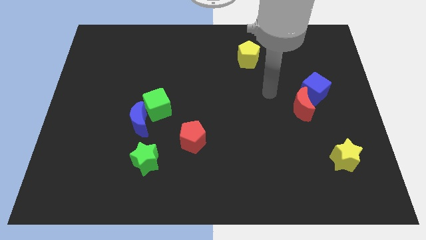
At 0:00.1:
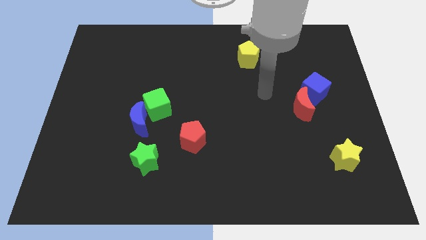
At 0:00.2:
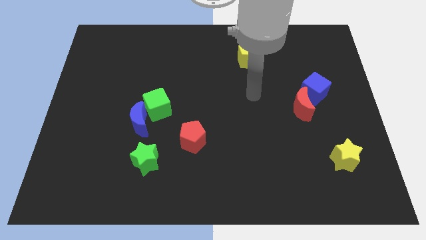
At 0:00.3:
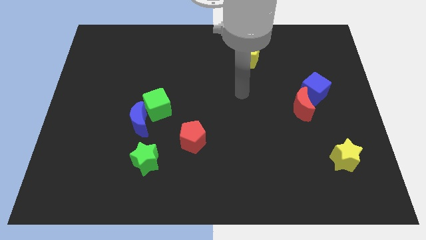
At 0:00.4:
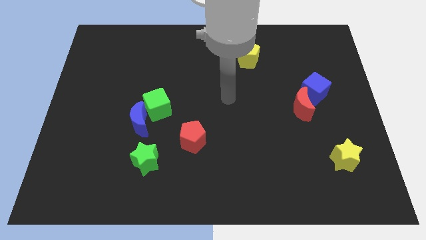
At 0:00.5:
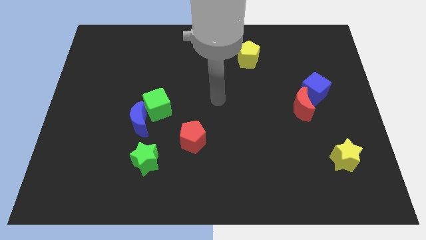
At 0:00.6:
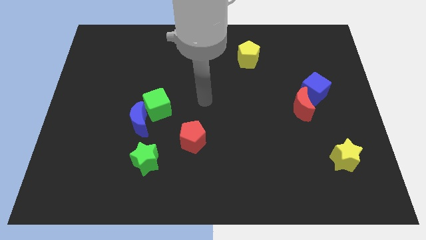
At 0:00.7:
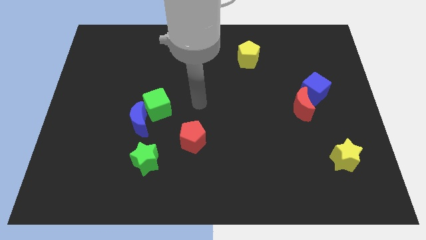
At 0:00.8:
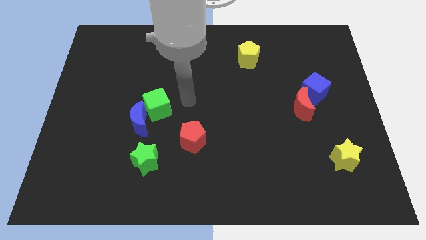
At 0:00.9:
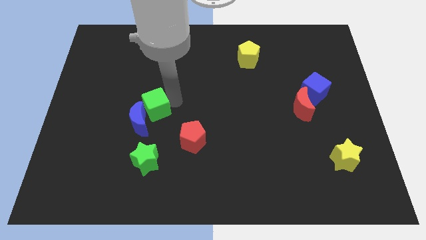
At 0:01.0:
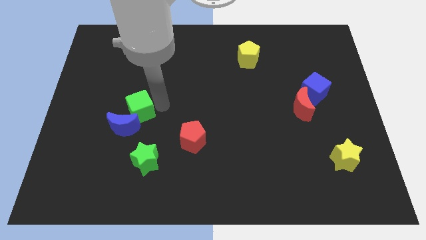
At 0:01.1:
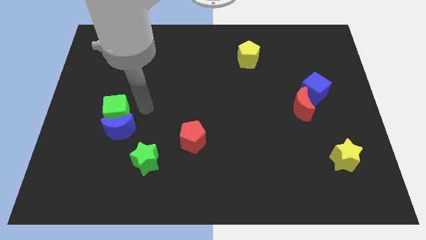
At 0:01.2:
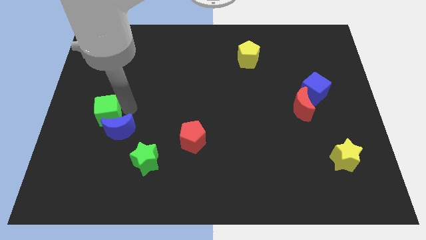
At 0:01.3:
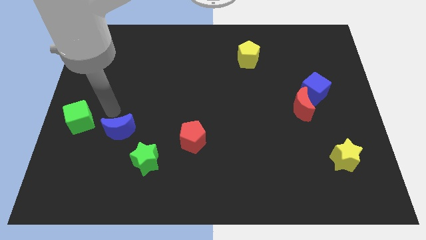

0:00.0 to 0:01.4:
pull the blue moon apart from the green cube

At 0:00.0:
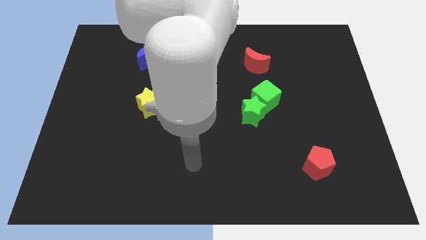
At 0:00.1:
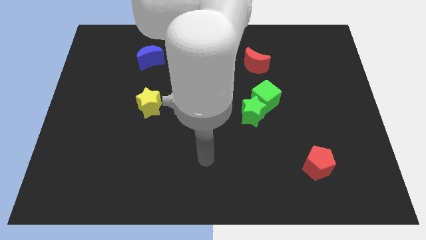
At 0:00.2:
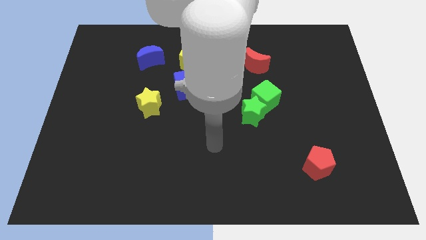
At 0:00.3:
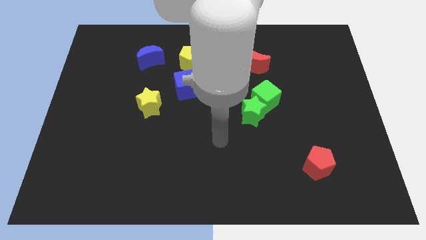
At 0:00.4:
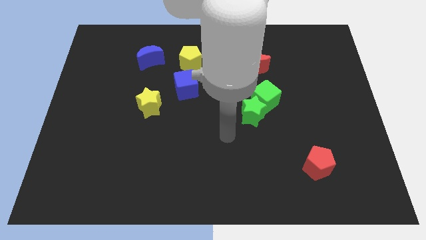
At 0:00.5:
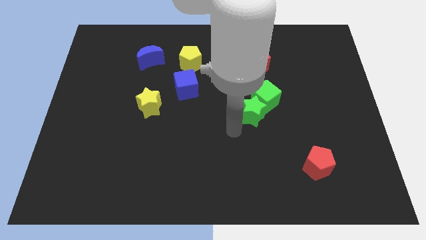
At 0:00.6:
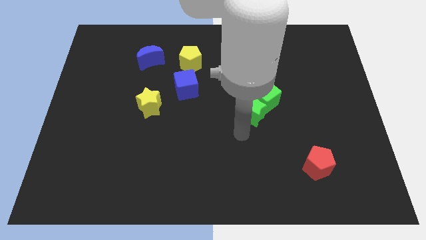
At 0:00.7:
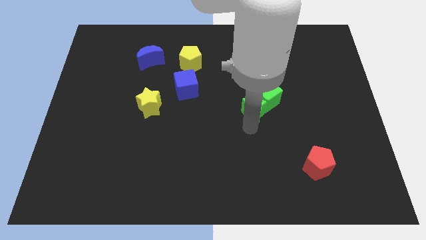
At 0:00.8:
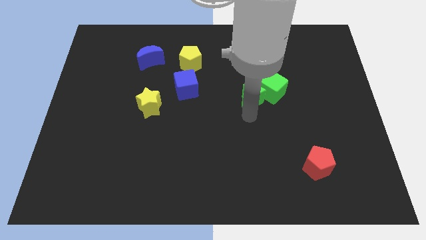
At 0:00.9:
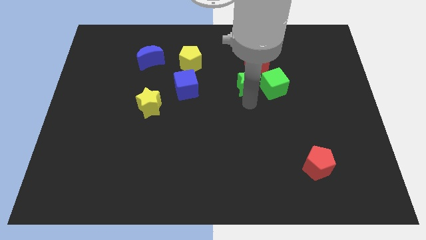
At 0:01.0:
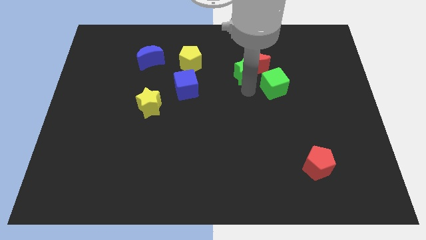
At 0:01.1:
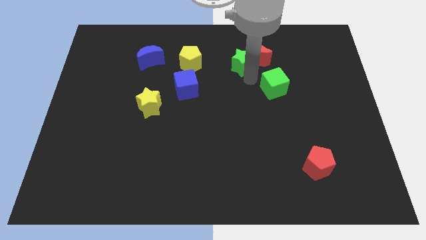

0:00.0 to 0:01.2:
separate the green cube from the green star

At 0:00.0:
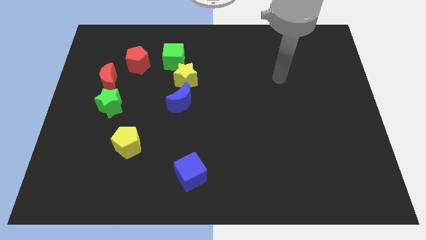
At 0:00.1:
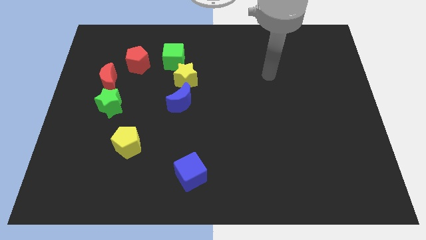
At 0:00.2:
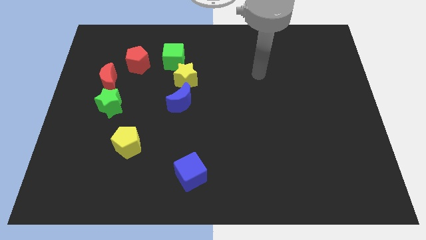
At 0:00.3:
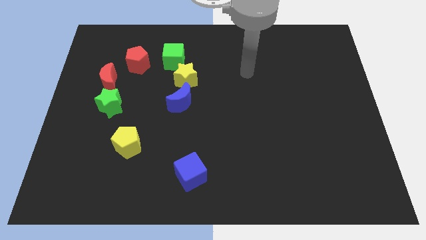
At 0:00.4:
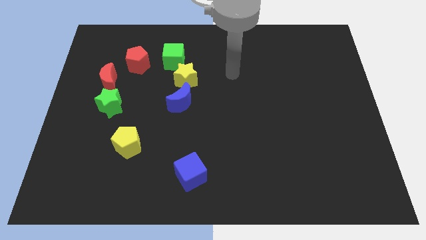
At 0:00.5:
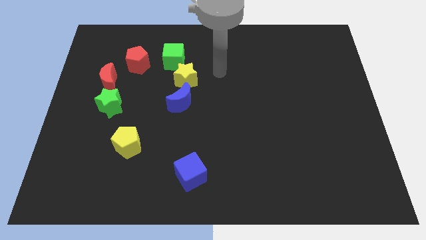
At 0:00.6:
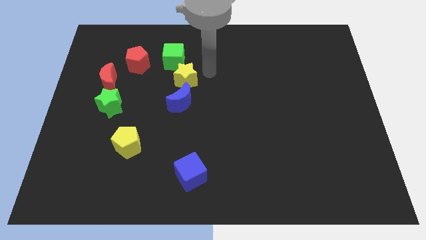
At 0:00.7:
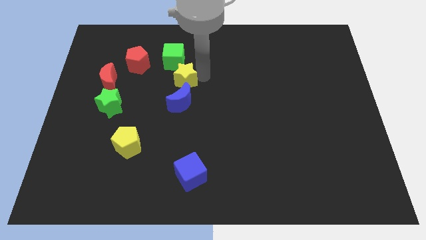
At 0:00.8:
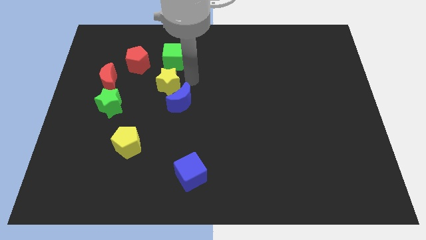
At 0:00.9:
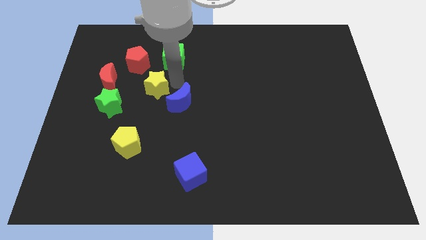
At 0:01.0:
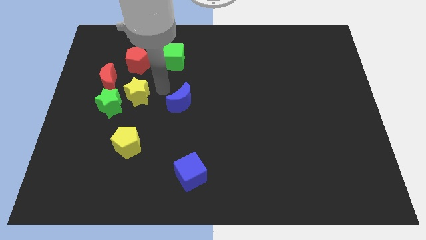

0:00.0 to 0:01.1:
move the blue moon away from the yellow star

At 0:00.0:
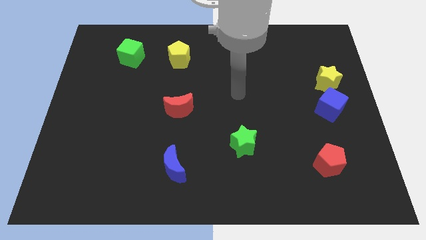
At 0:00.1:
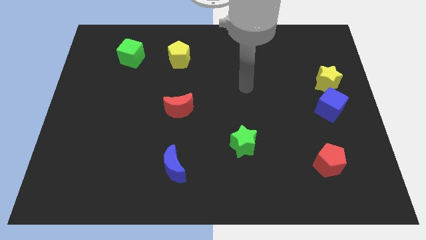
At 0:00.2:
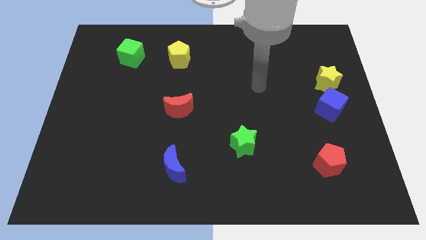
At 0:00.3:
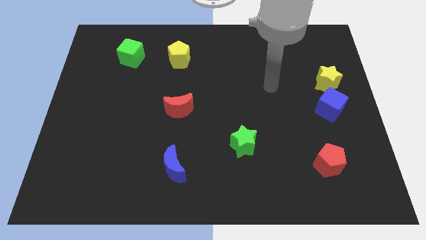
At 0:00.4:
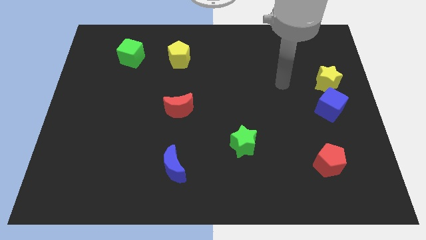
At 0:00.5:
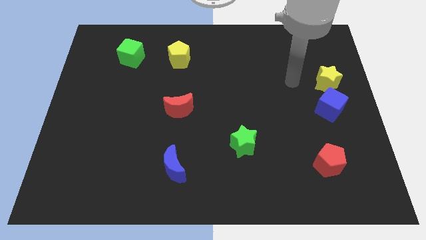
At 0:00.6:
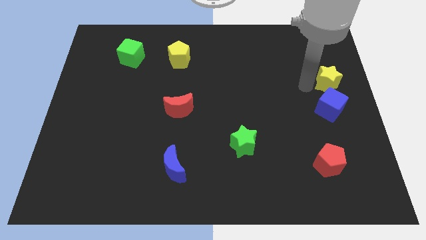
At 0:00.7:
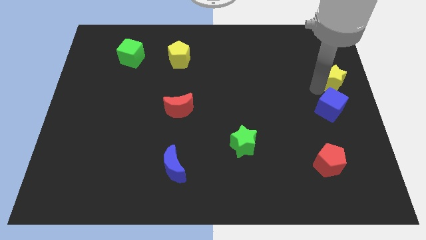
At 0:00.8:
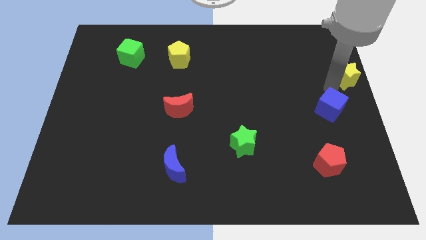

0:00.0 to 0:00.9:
separate the blue cube from the yellow star

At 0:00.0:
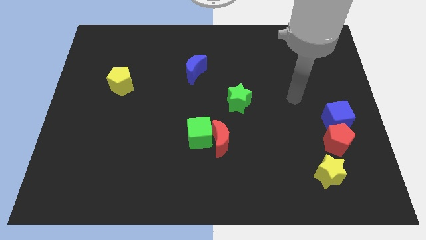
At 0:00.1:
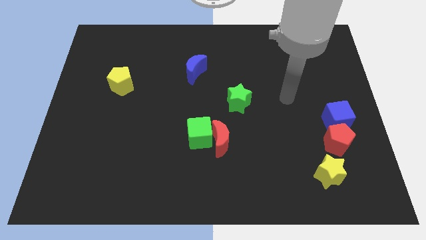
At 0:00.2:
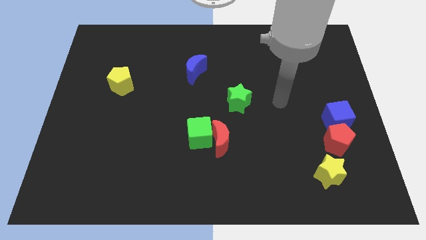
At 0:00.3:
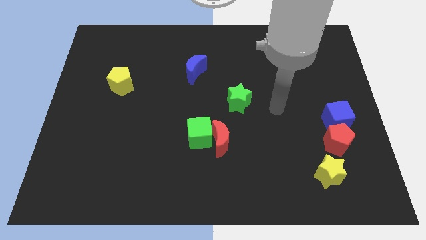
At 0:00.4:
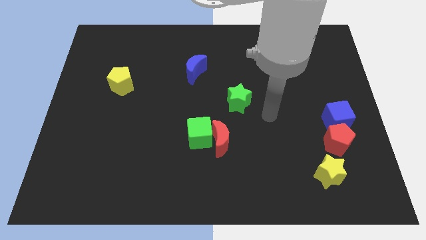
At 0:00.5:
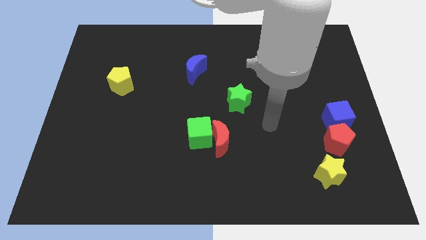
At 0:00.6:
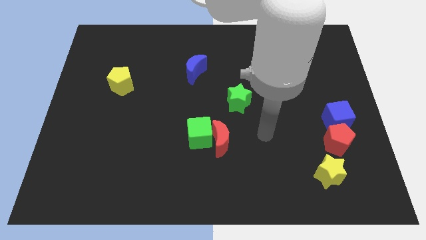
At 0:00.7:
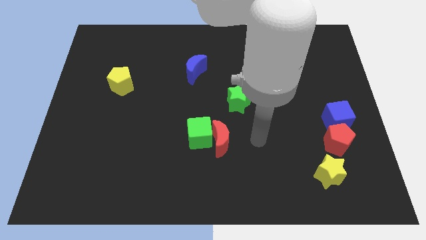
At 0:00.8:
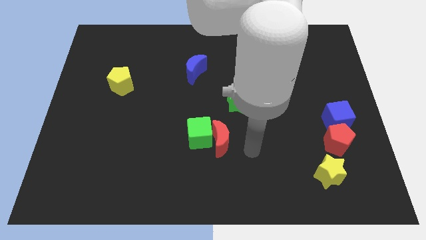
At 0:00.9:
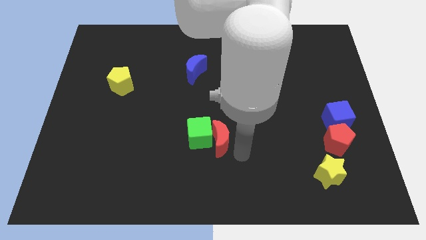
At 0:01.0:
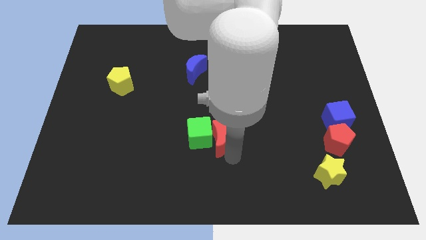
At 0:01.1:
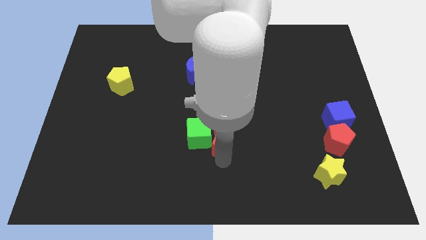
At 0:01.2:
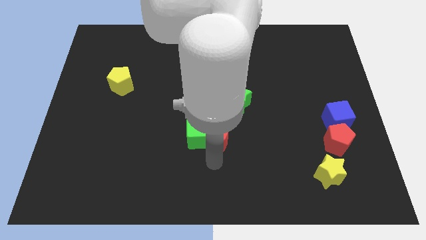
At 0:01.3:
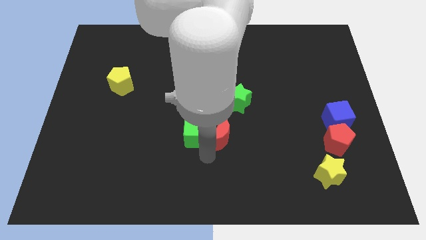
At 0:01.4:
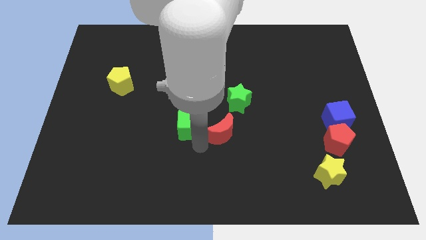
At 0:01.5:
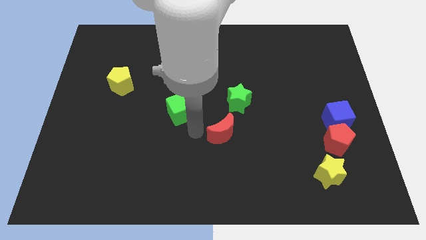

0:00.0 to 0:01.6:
move the red moon away from the green cube

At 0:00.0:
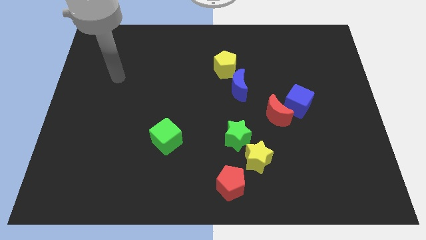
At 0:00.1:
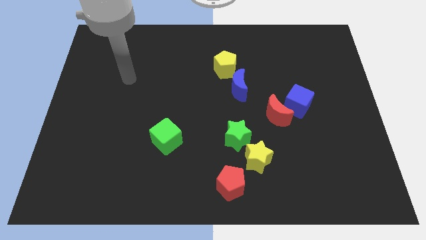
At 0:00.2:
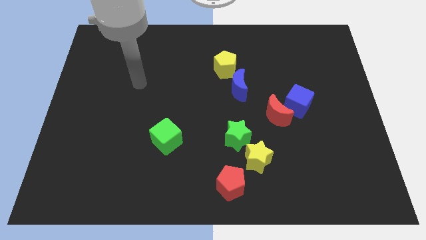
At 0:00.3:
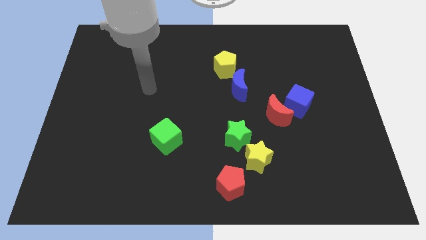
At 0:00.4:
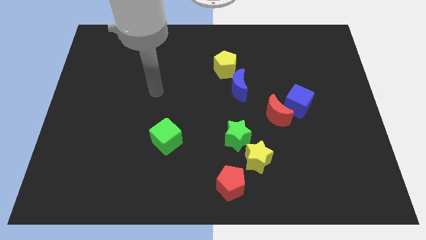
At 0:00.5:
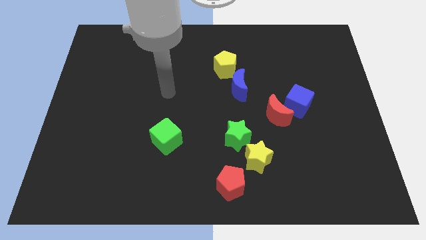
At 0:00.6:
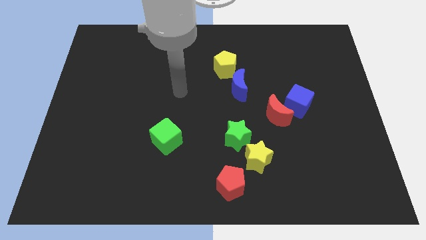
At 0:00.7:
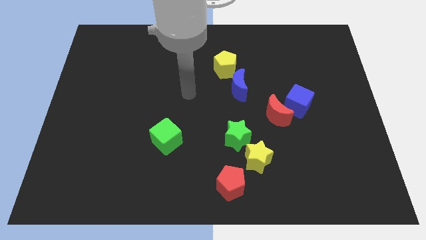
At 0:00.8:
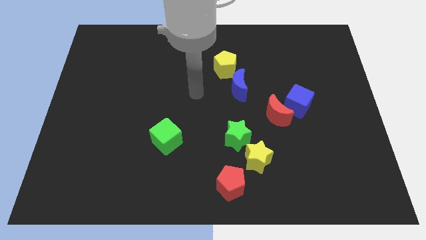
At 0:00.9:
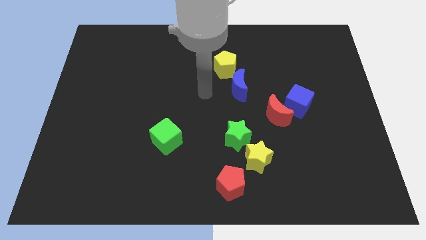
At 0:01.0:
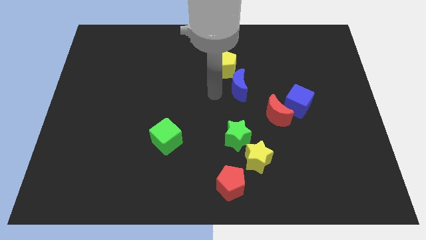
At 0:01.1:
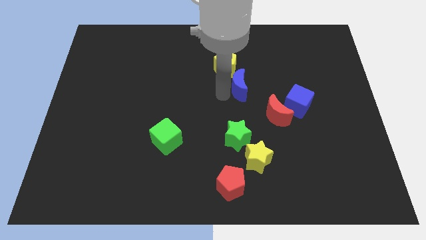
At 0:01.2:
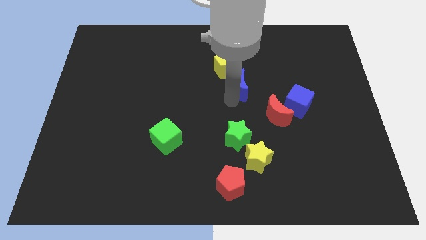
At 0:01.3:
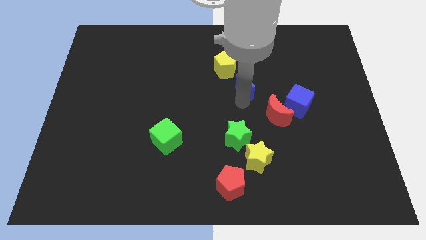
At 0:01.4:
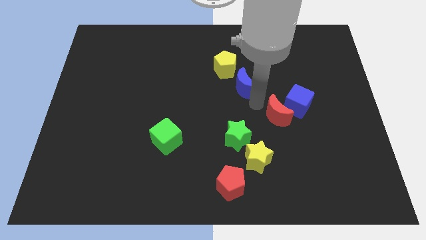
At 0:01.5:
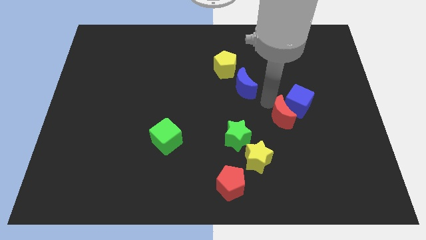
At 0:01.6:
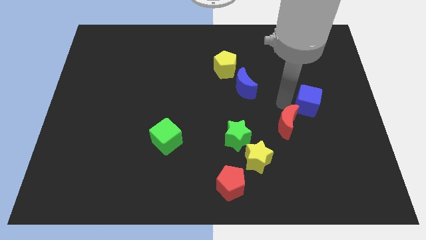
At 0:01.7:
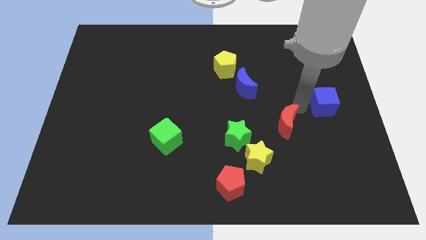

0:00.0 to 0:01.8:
pull the red moon apart from the blue cube

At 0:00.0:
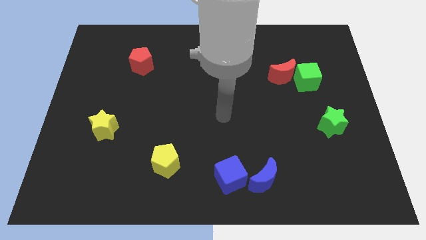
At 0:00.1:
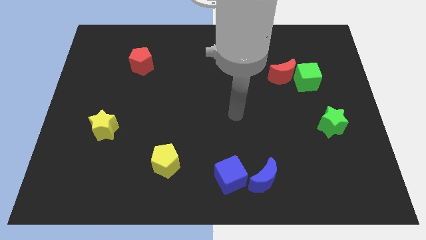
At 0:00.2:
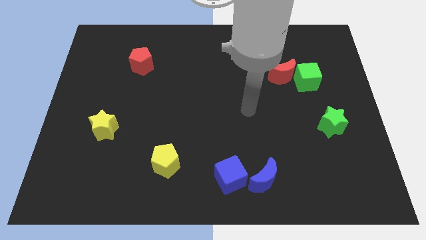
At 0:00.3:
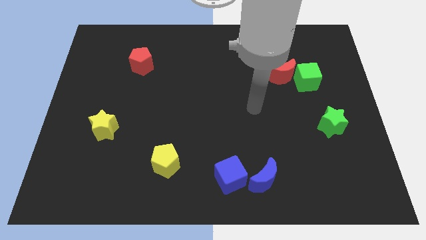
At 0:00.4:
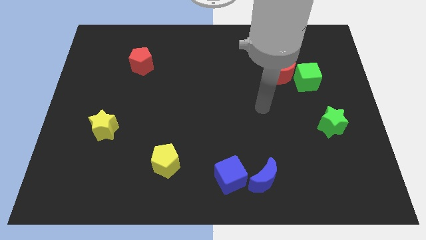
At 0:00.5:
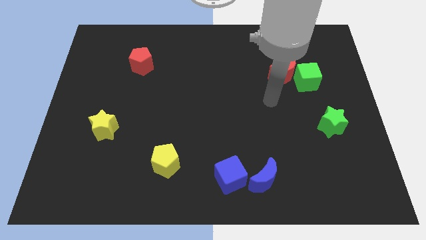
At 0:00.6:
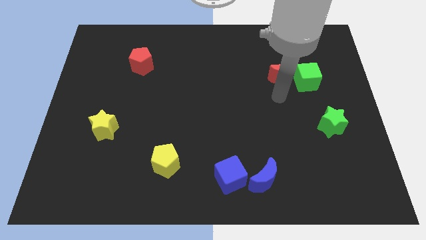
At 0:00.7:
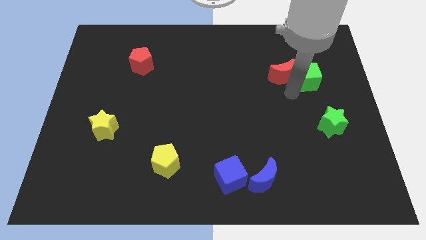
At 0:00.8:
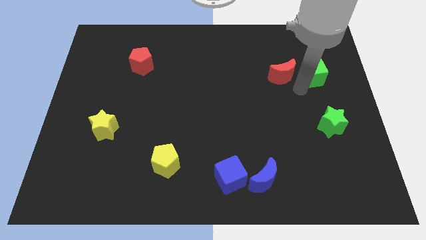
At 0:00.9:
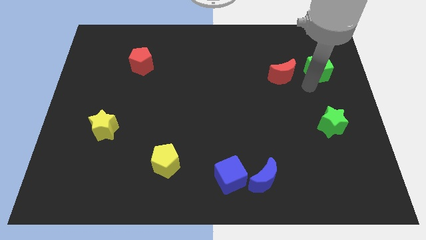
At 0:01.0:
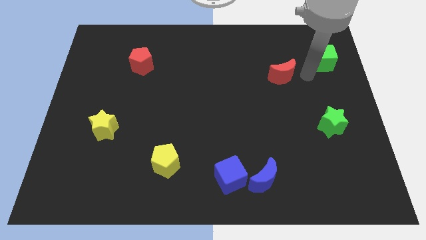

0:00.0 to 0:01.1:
pull the red moon apart from the green cube

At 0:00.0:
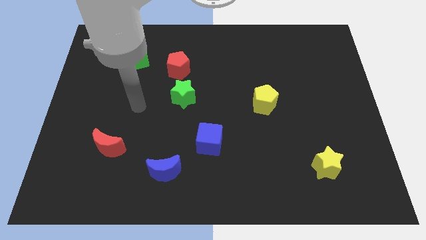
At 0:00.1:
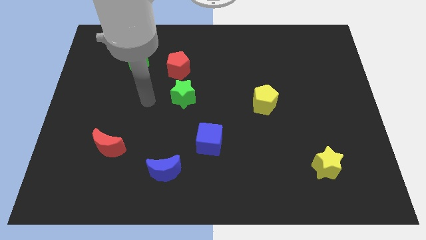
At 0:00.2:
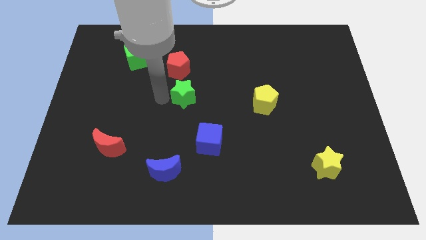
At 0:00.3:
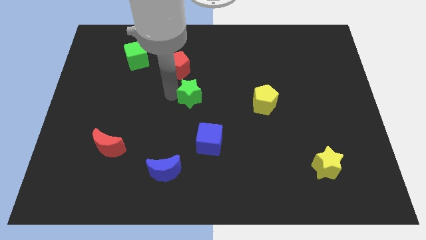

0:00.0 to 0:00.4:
separate the red pentagon from the green star
